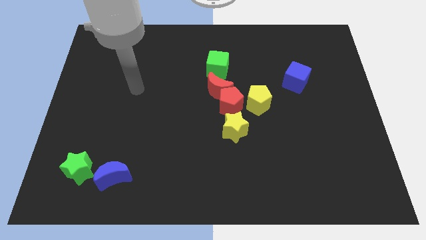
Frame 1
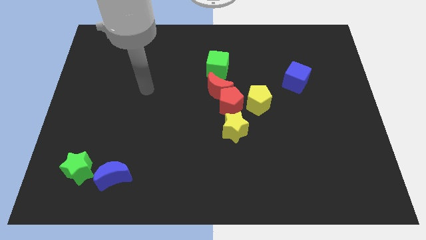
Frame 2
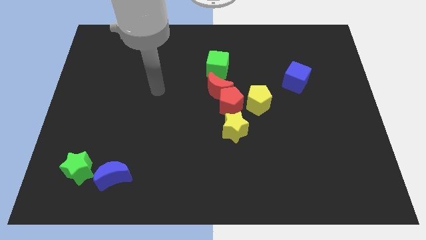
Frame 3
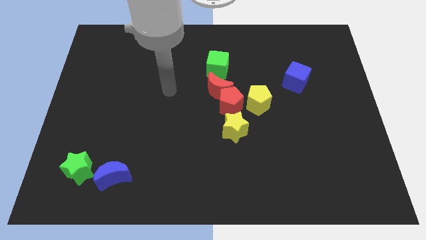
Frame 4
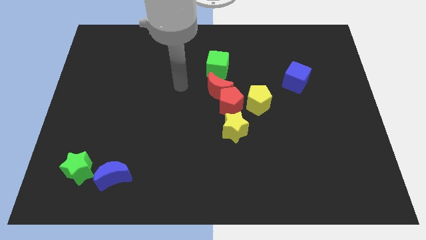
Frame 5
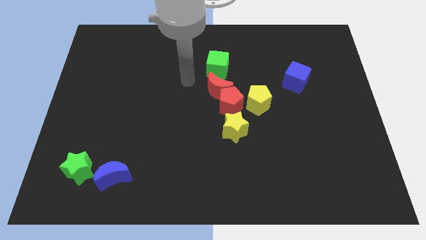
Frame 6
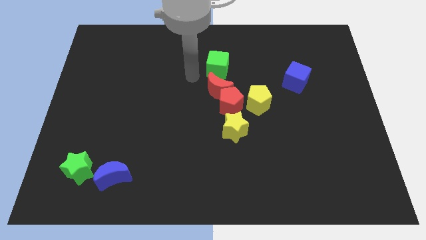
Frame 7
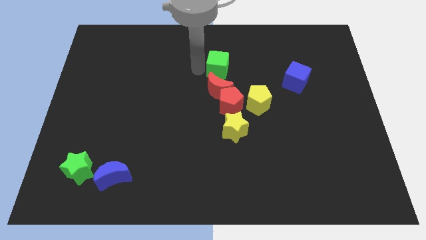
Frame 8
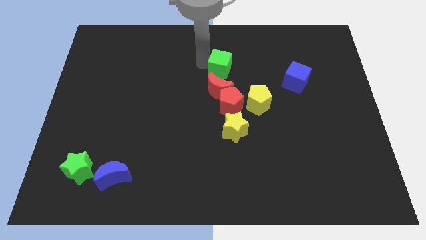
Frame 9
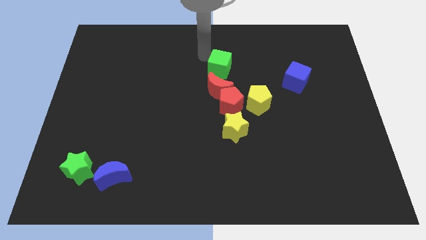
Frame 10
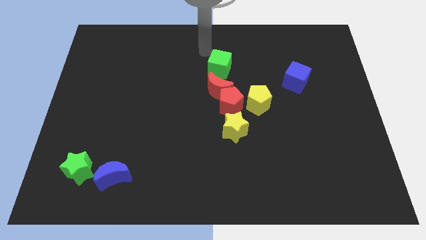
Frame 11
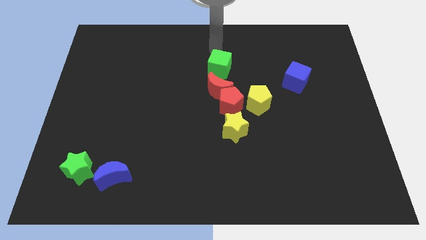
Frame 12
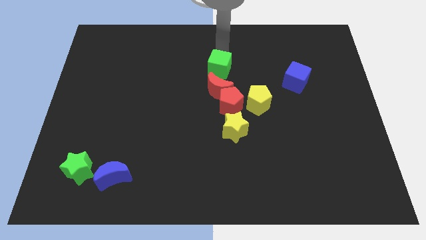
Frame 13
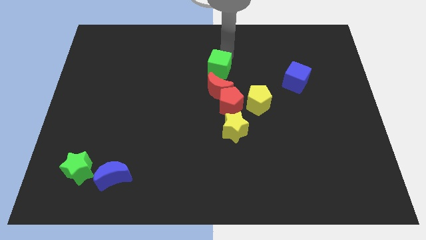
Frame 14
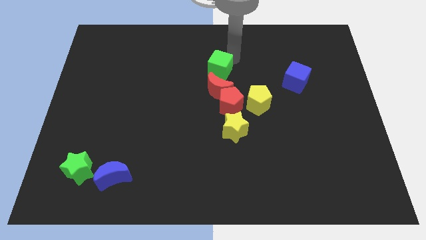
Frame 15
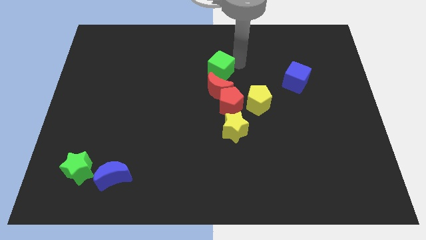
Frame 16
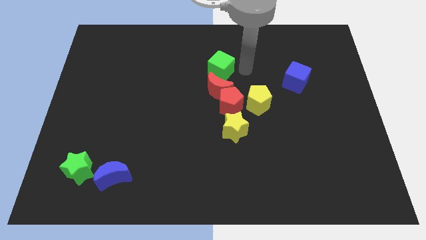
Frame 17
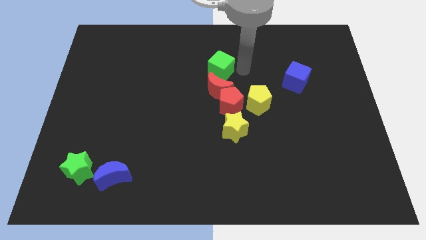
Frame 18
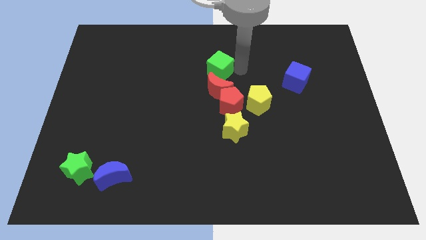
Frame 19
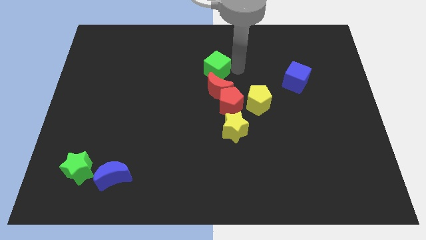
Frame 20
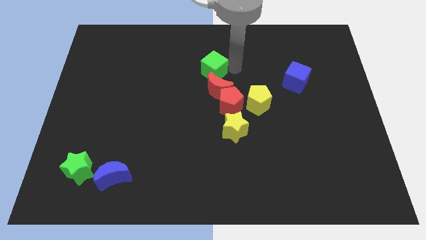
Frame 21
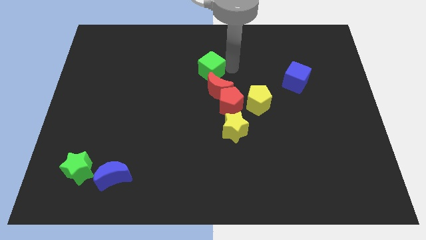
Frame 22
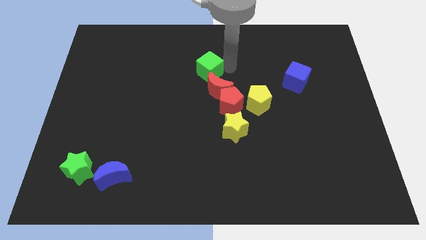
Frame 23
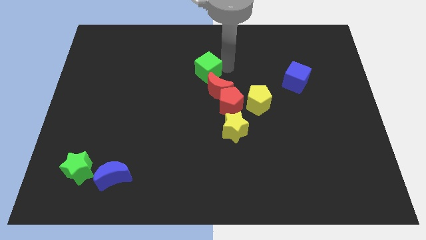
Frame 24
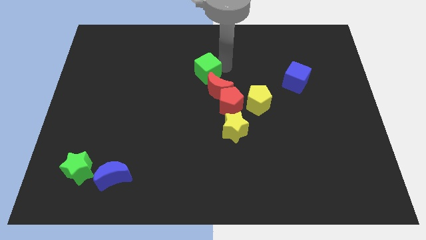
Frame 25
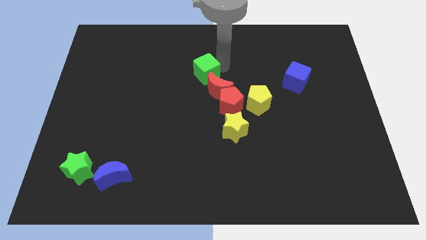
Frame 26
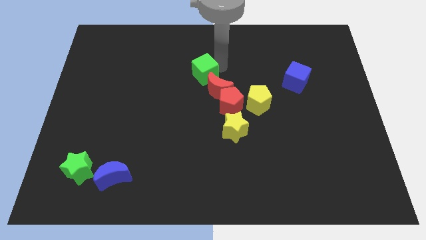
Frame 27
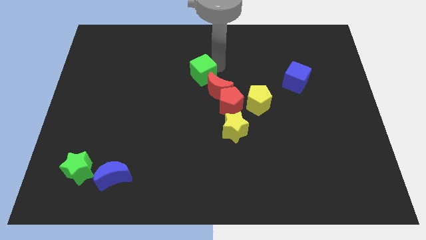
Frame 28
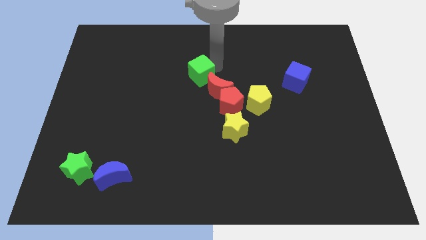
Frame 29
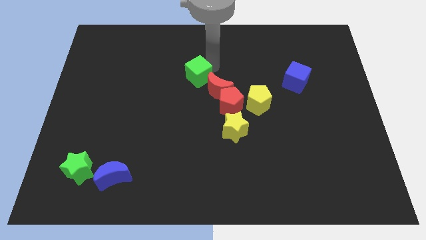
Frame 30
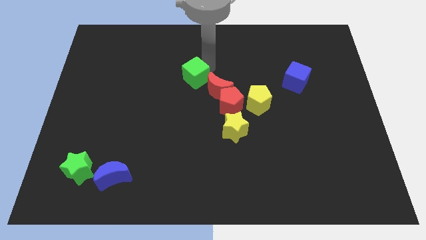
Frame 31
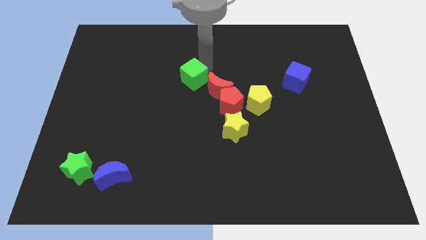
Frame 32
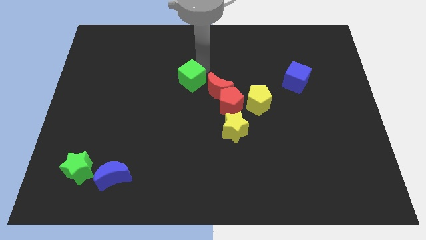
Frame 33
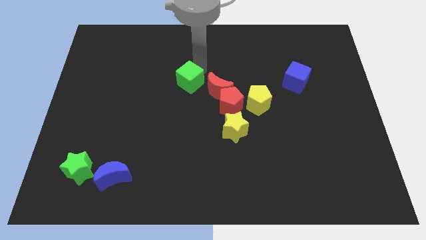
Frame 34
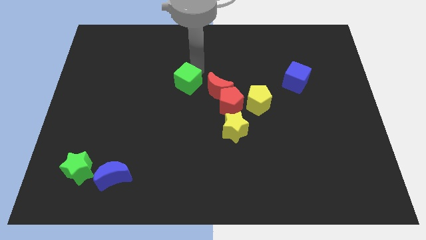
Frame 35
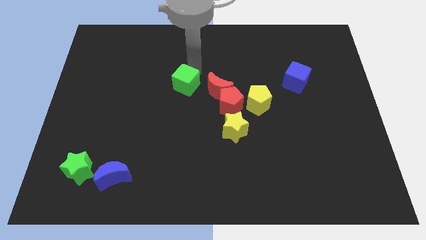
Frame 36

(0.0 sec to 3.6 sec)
move the green cube left somewhat

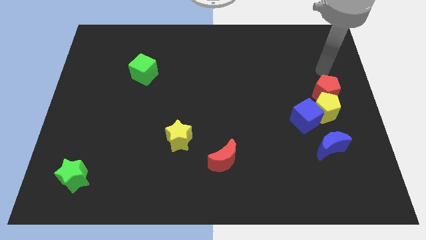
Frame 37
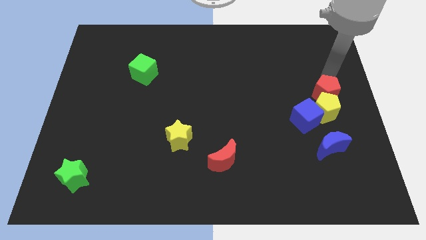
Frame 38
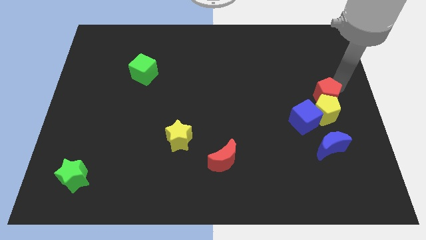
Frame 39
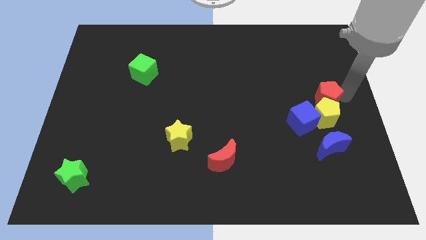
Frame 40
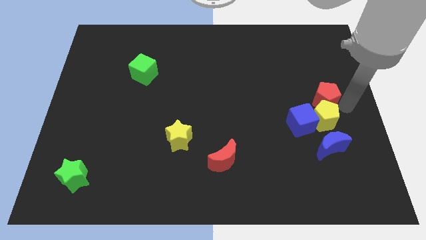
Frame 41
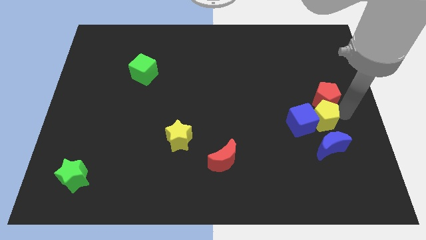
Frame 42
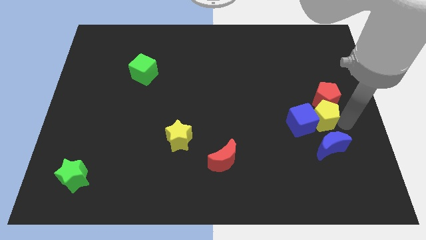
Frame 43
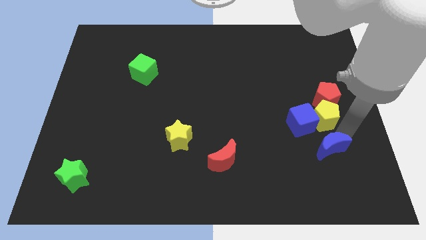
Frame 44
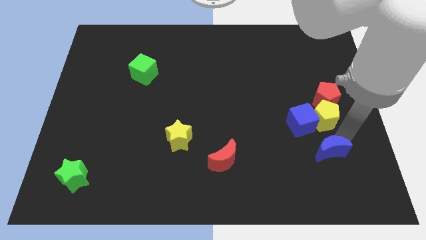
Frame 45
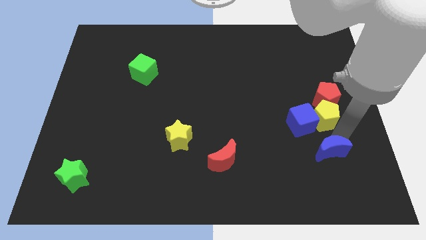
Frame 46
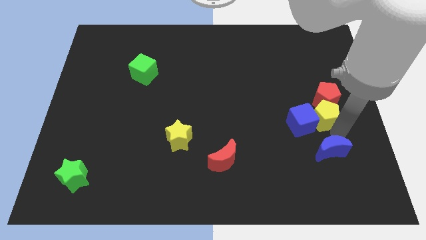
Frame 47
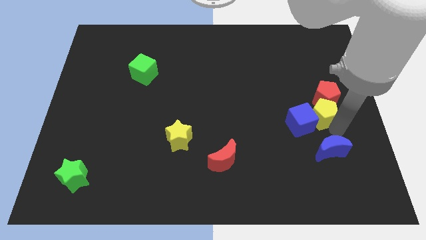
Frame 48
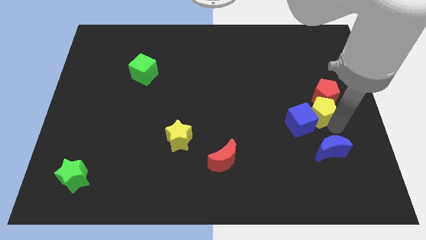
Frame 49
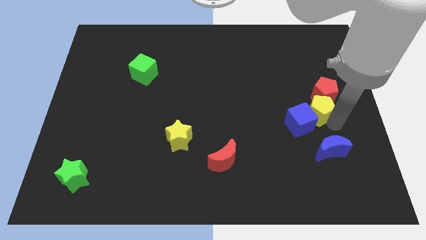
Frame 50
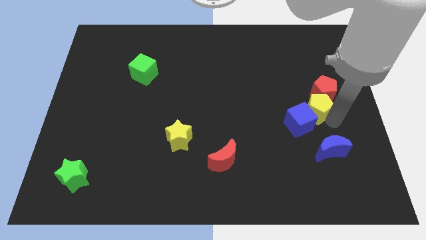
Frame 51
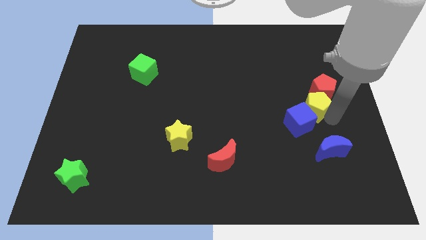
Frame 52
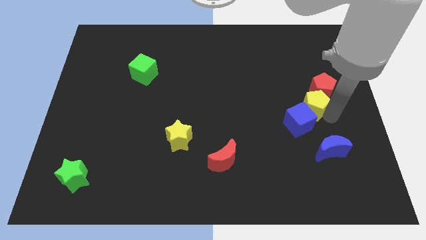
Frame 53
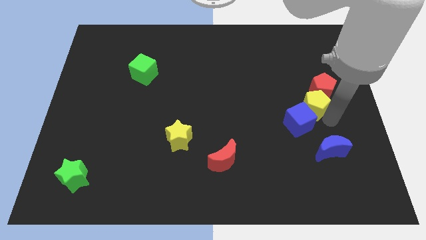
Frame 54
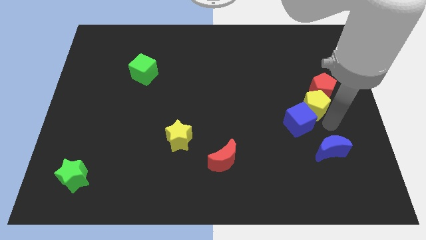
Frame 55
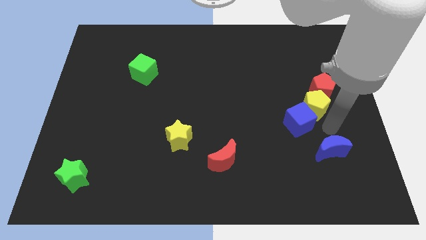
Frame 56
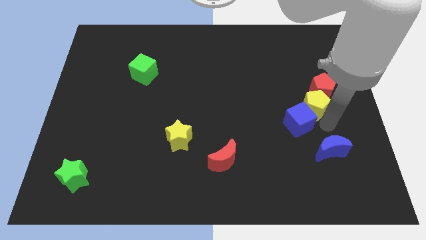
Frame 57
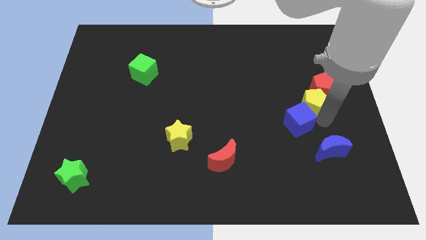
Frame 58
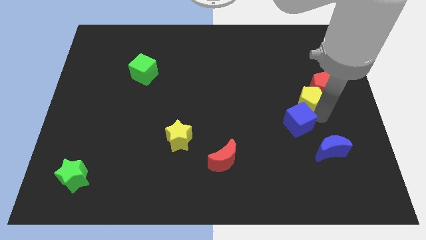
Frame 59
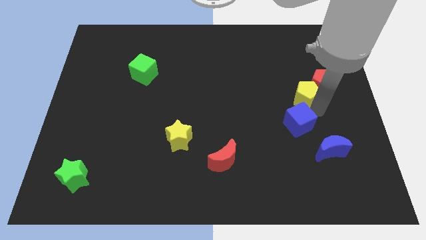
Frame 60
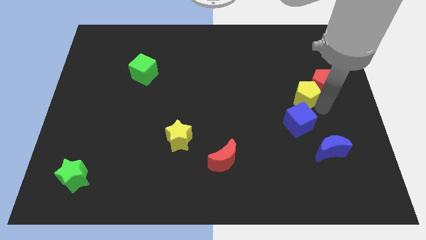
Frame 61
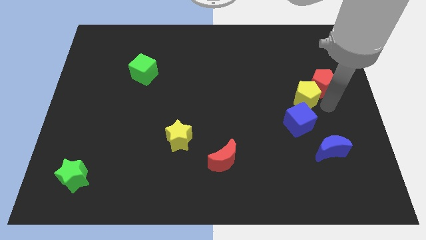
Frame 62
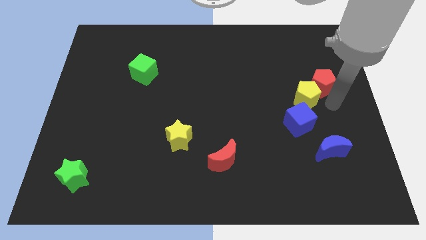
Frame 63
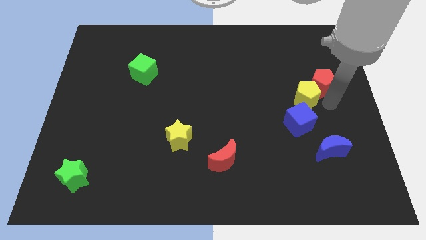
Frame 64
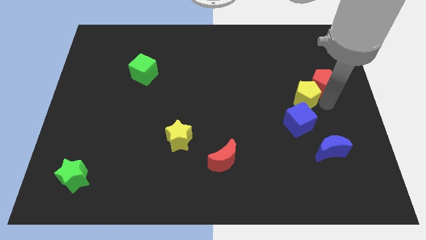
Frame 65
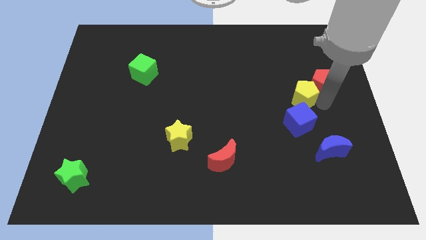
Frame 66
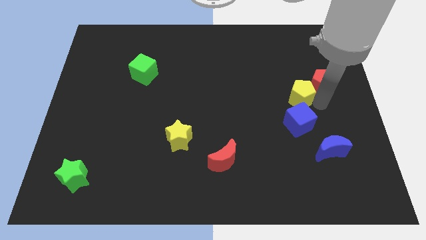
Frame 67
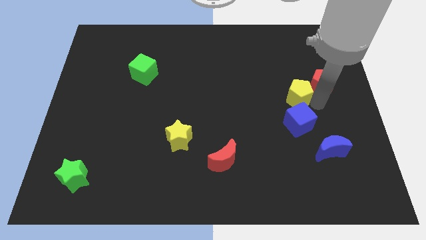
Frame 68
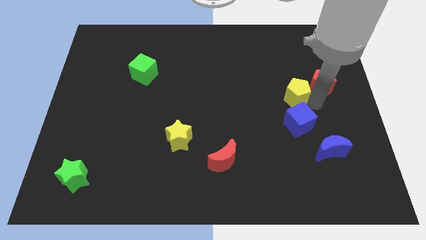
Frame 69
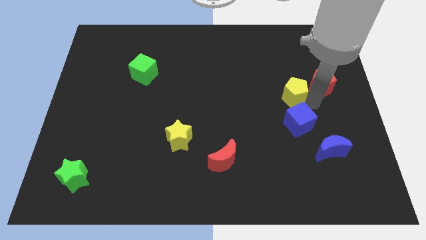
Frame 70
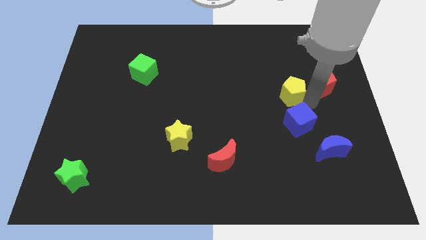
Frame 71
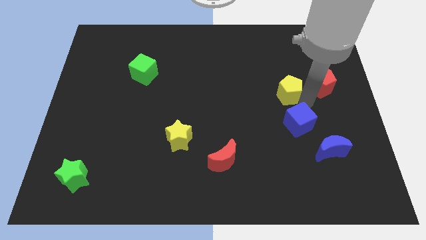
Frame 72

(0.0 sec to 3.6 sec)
slide the yellow pentagon left a little

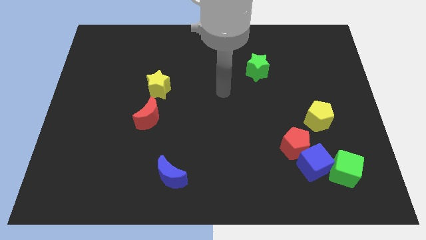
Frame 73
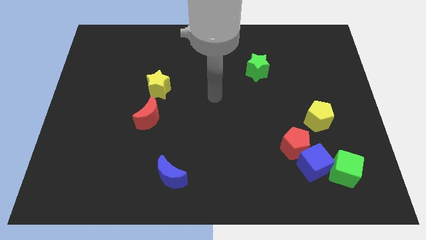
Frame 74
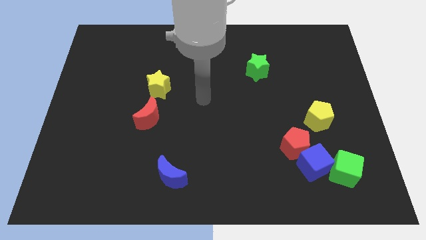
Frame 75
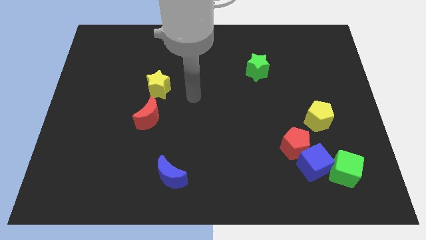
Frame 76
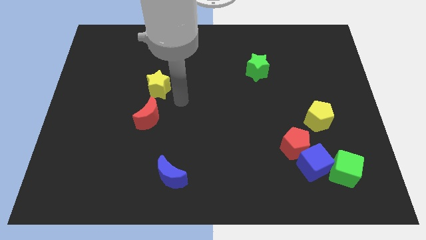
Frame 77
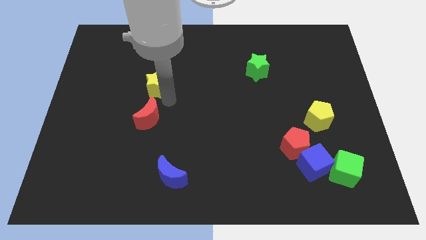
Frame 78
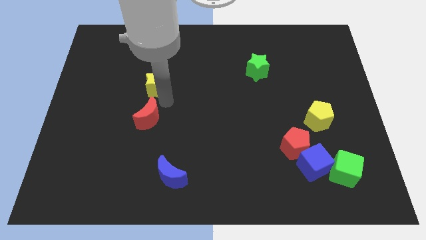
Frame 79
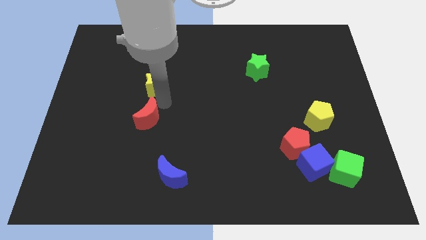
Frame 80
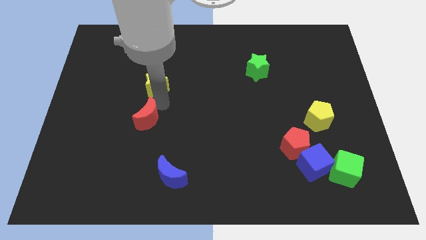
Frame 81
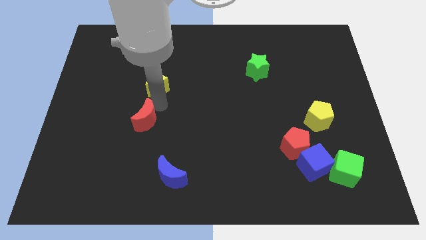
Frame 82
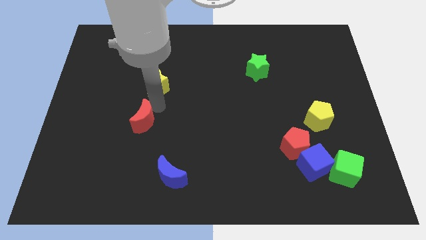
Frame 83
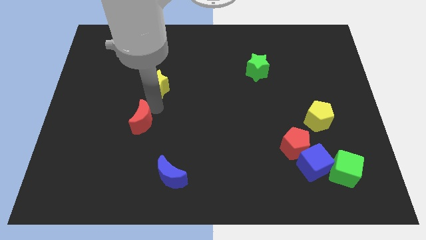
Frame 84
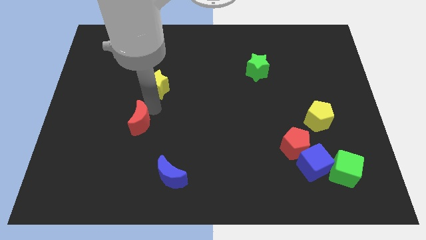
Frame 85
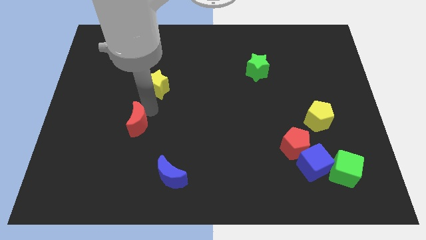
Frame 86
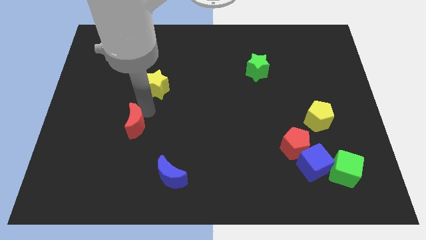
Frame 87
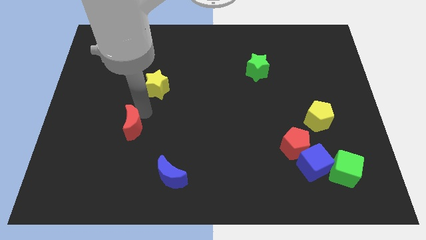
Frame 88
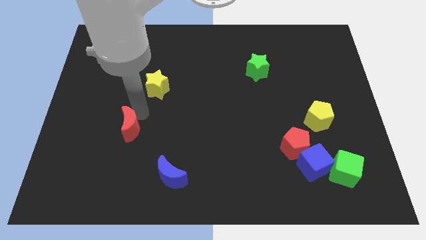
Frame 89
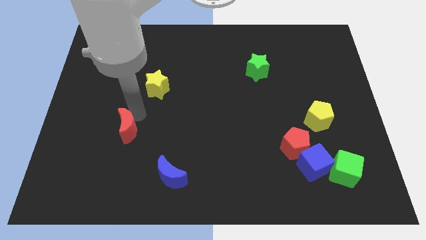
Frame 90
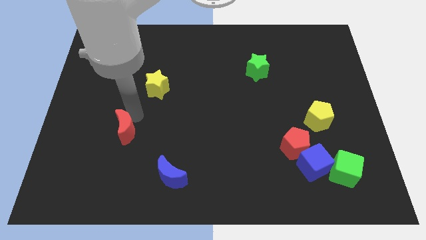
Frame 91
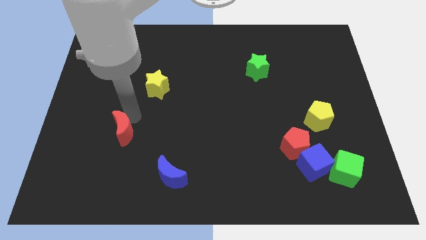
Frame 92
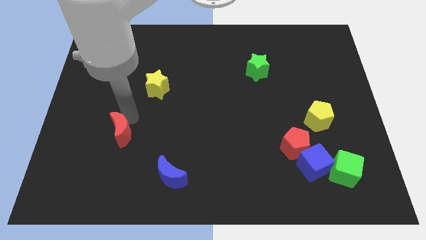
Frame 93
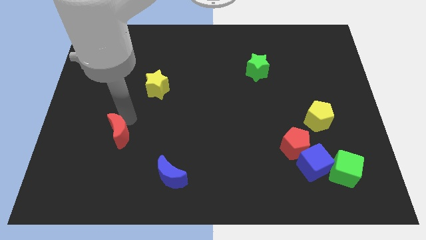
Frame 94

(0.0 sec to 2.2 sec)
push the red moon somewhat downwards and then to the left
